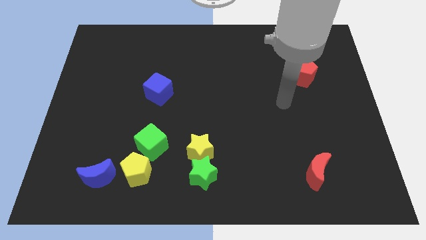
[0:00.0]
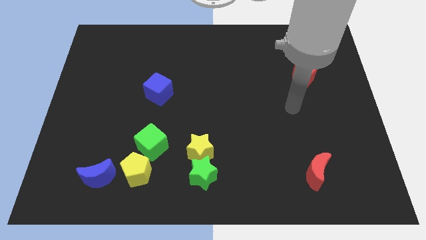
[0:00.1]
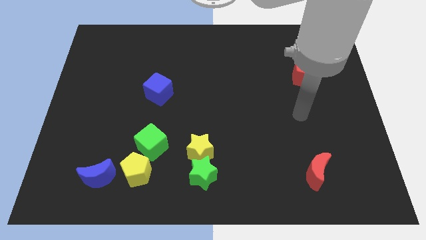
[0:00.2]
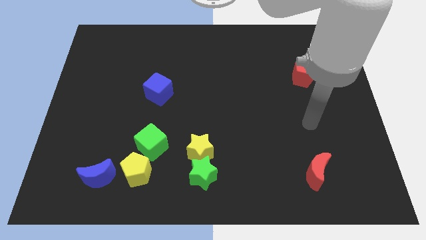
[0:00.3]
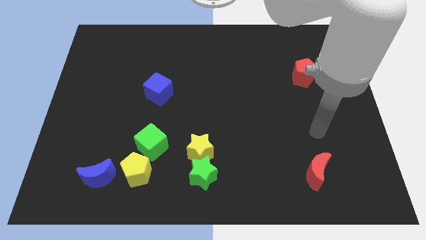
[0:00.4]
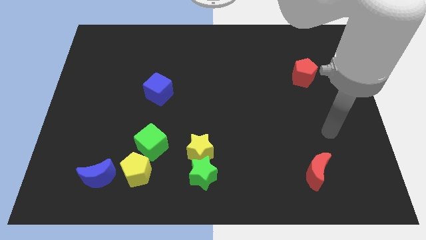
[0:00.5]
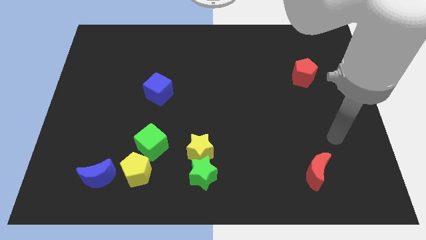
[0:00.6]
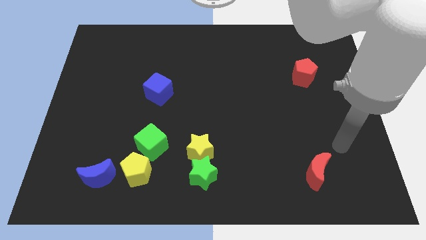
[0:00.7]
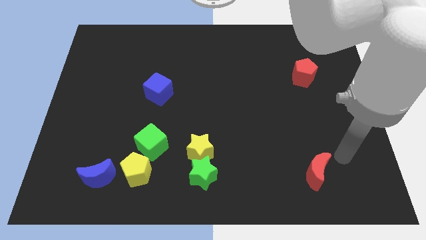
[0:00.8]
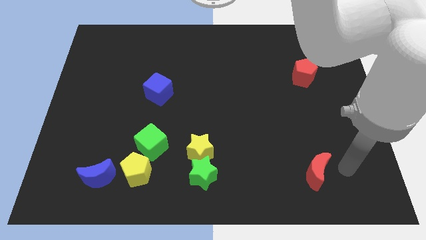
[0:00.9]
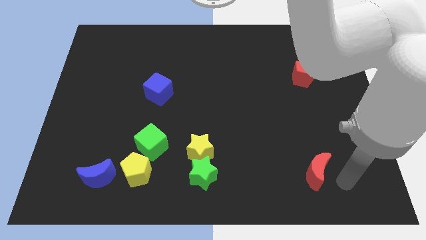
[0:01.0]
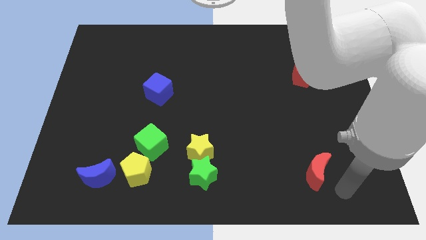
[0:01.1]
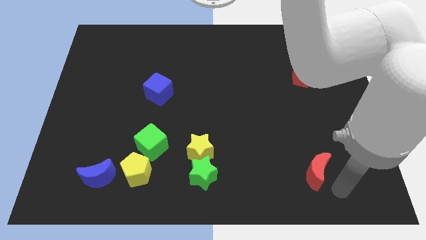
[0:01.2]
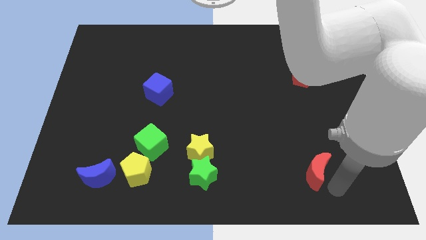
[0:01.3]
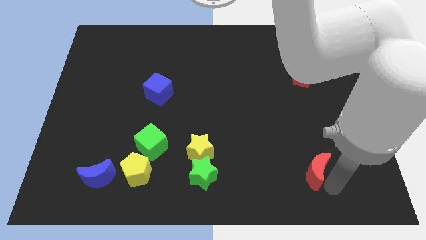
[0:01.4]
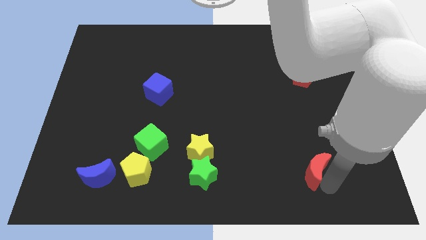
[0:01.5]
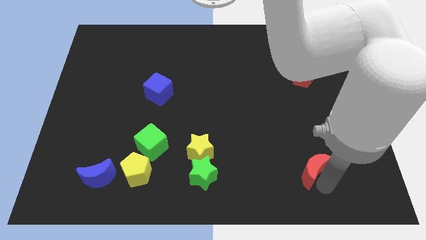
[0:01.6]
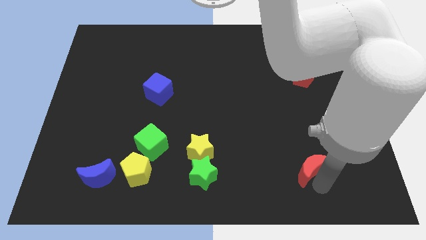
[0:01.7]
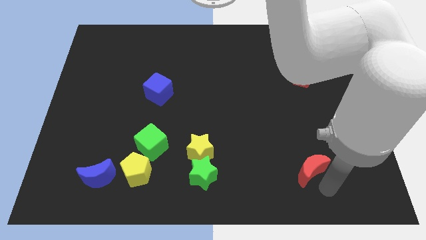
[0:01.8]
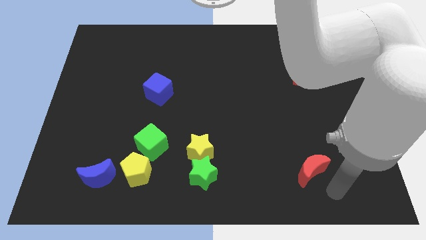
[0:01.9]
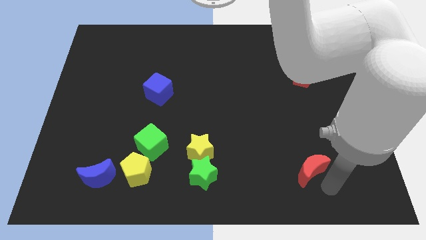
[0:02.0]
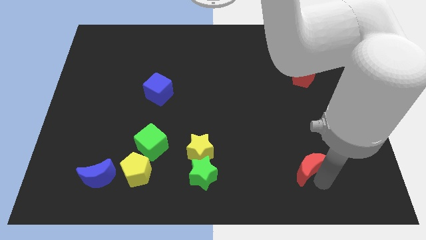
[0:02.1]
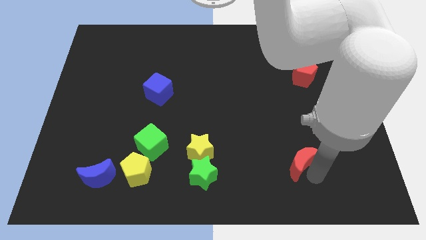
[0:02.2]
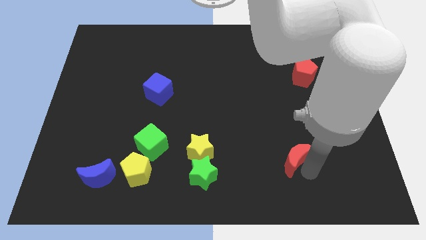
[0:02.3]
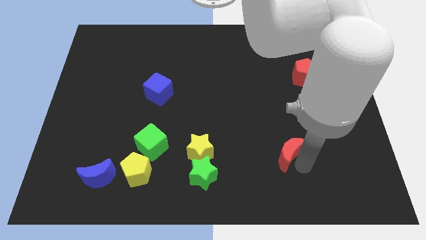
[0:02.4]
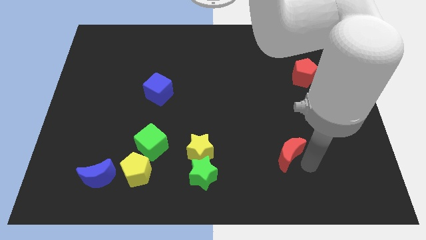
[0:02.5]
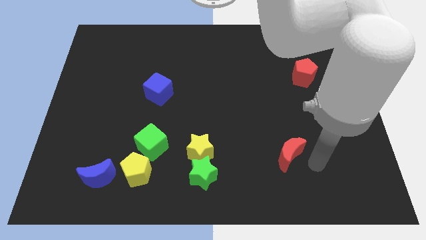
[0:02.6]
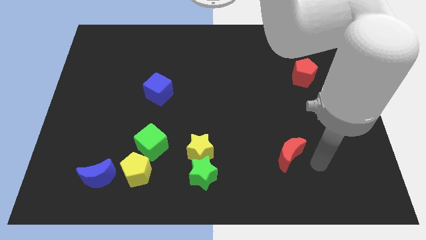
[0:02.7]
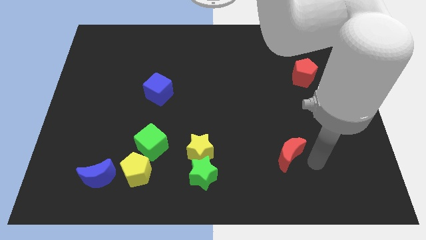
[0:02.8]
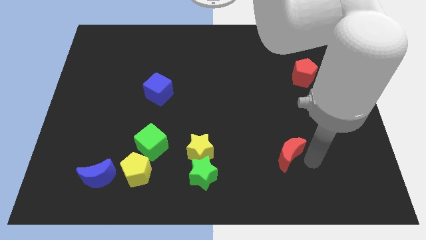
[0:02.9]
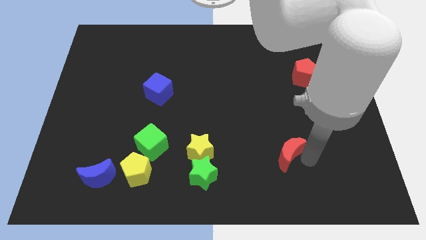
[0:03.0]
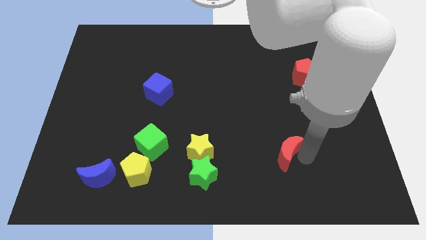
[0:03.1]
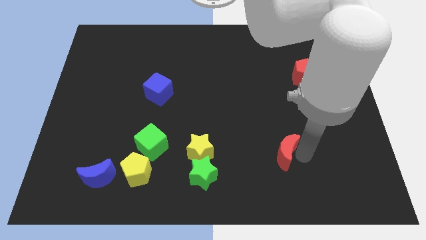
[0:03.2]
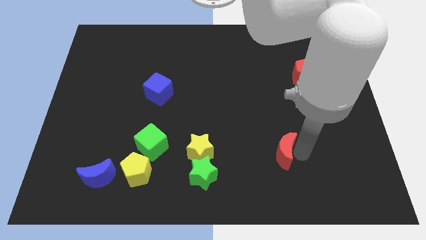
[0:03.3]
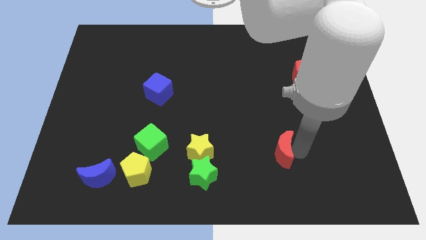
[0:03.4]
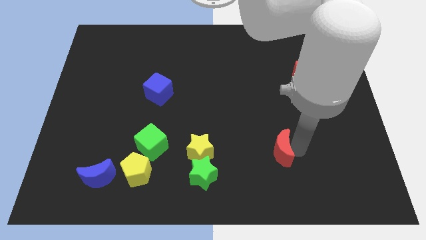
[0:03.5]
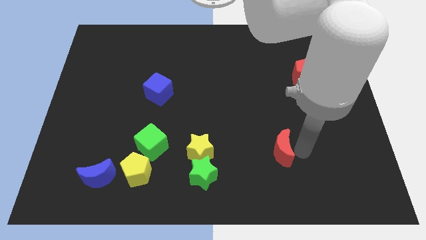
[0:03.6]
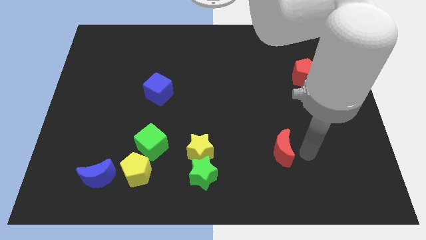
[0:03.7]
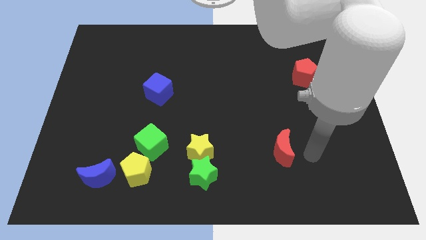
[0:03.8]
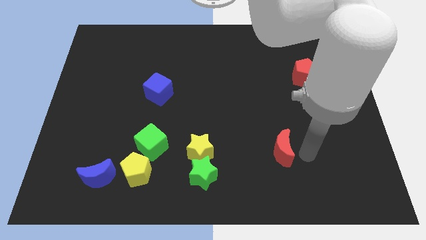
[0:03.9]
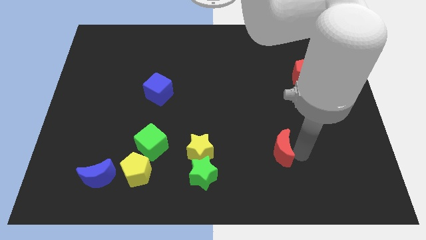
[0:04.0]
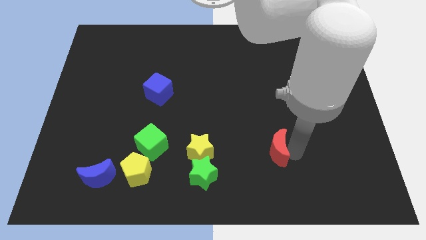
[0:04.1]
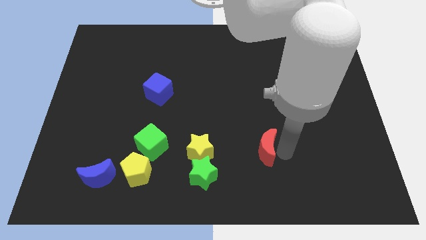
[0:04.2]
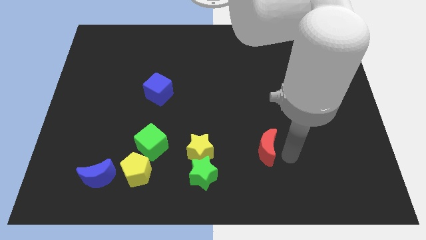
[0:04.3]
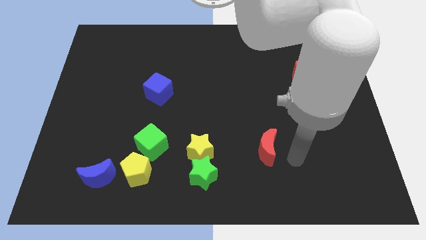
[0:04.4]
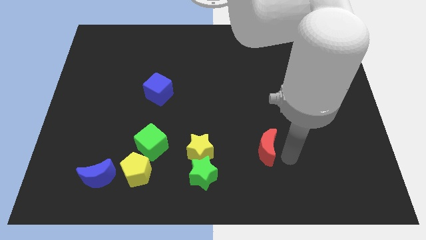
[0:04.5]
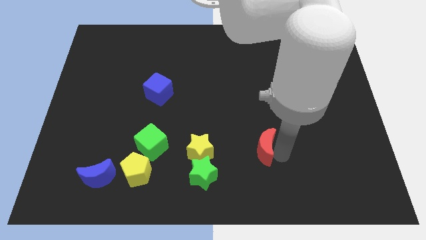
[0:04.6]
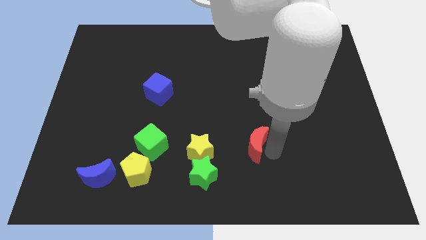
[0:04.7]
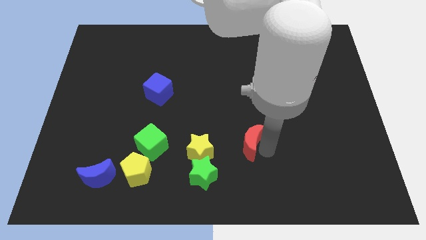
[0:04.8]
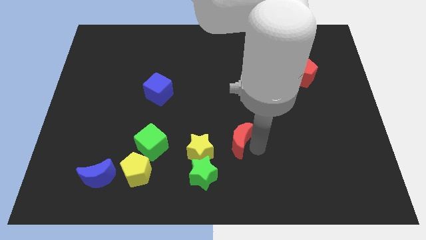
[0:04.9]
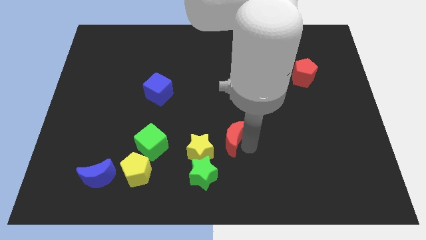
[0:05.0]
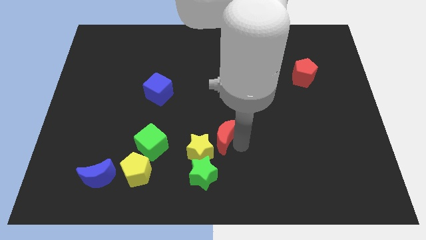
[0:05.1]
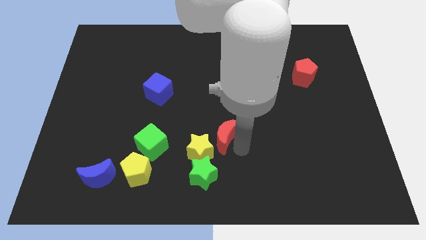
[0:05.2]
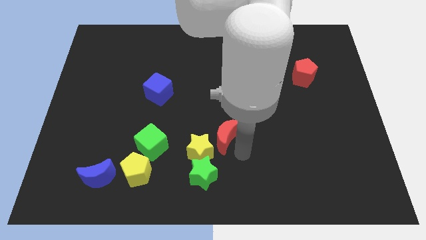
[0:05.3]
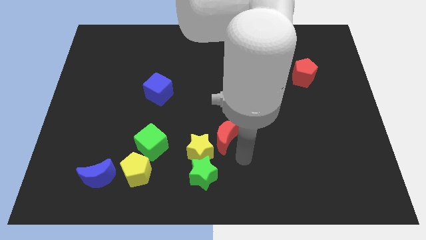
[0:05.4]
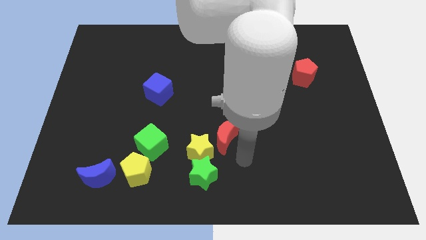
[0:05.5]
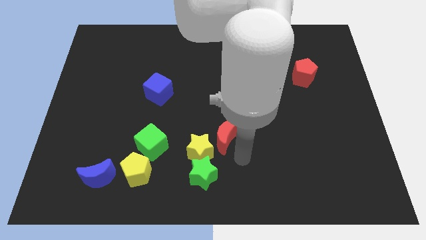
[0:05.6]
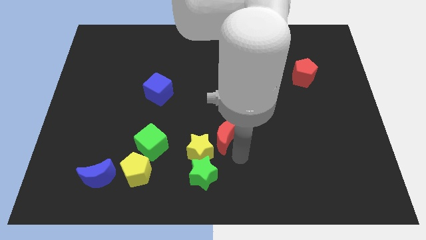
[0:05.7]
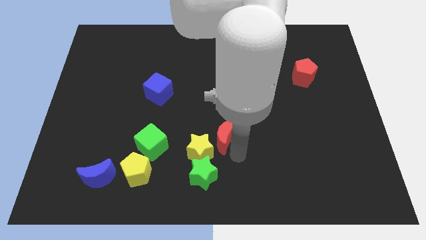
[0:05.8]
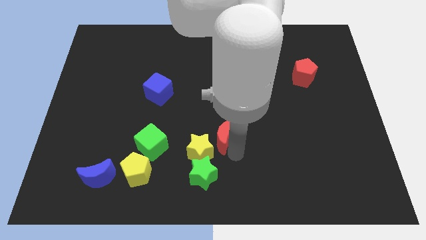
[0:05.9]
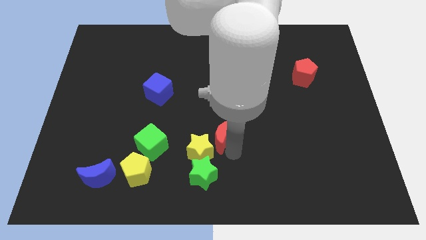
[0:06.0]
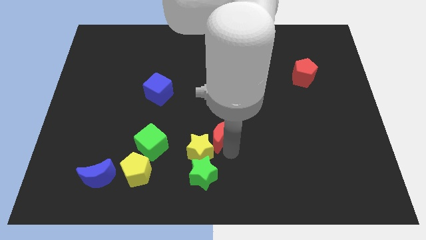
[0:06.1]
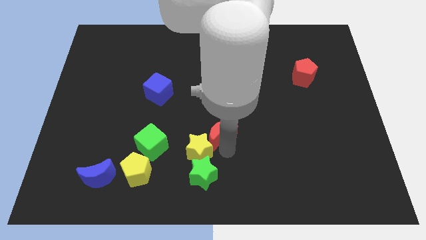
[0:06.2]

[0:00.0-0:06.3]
push the red moon to the top of the yellow star

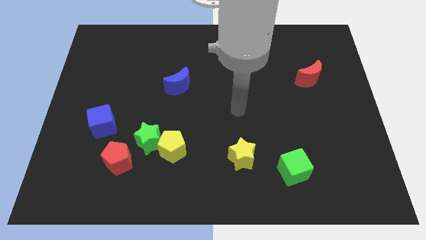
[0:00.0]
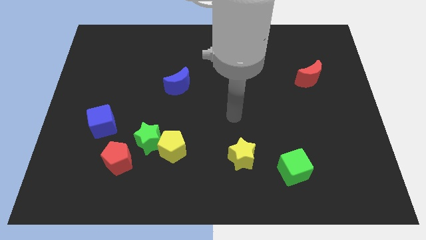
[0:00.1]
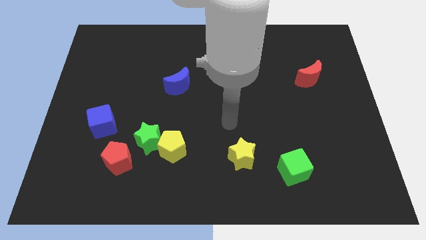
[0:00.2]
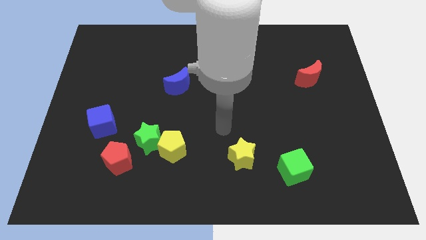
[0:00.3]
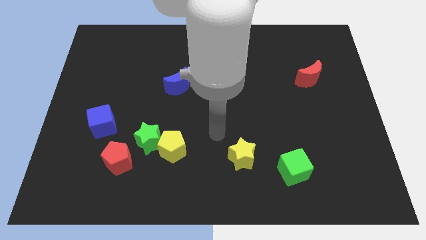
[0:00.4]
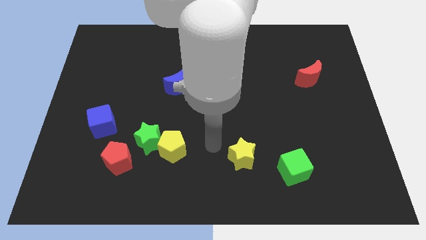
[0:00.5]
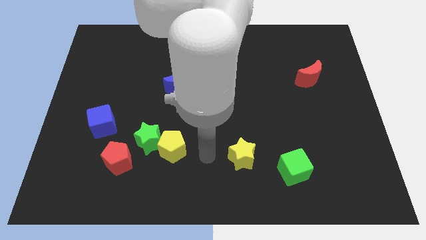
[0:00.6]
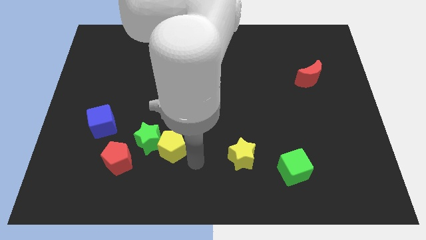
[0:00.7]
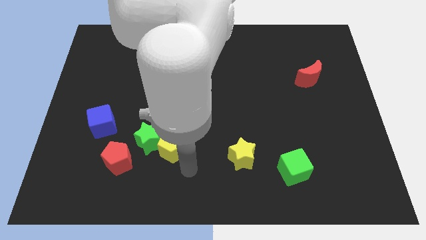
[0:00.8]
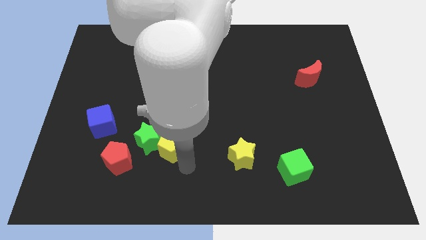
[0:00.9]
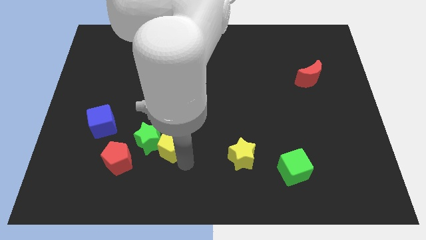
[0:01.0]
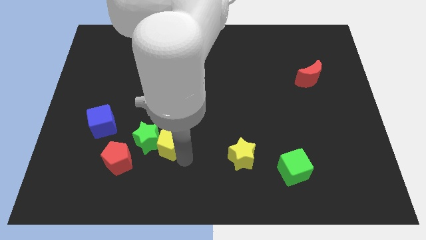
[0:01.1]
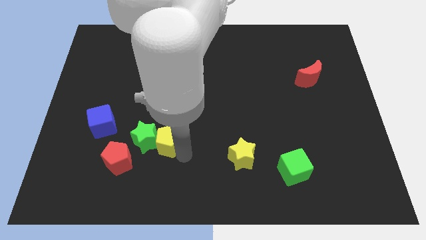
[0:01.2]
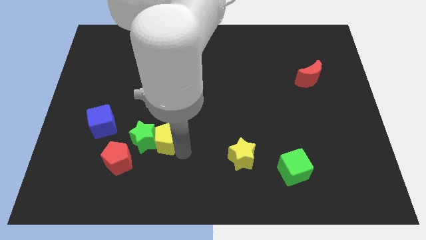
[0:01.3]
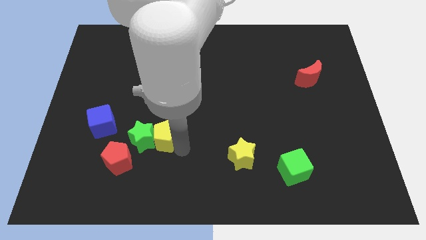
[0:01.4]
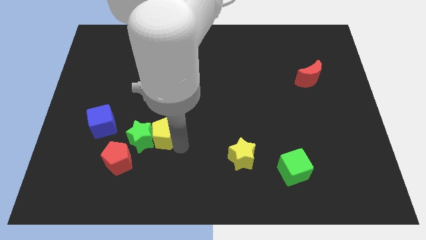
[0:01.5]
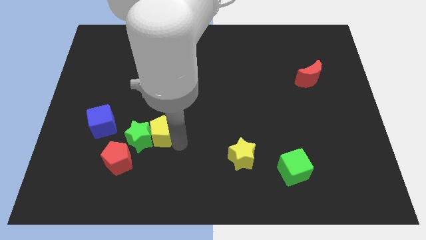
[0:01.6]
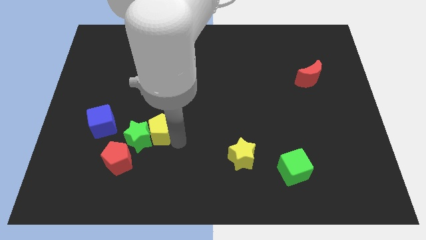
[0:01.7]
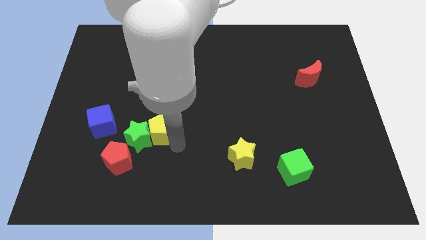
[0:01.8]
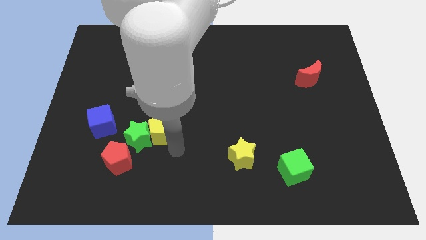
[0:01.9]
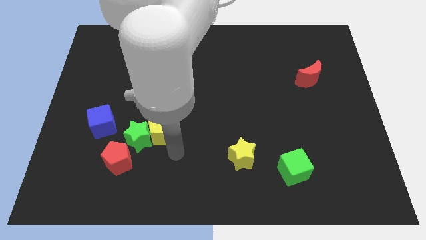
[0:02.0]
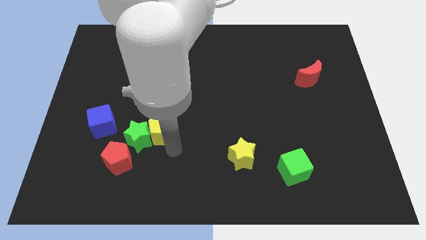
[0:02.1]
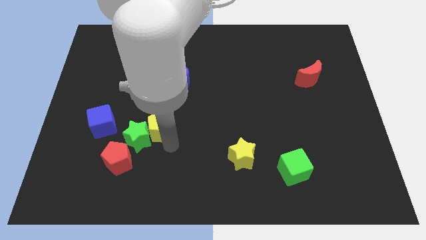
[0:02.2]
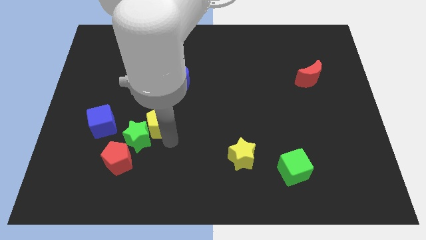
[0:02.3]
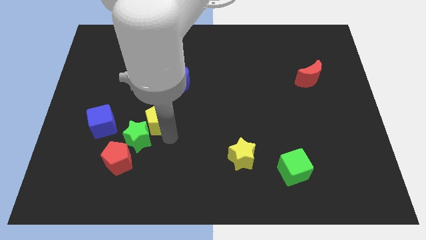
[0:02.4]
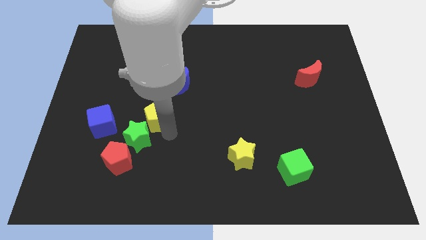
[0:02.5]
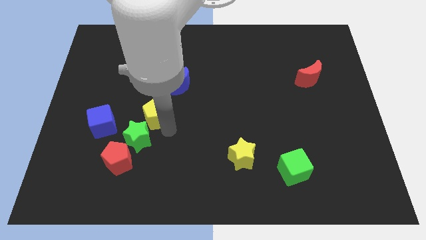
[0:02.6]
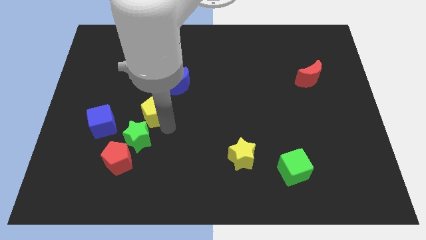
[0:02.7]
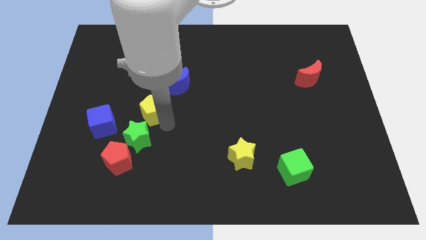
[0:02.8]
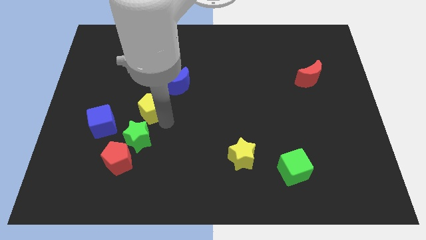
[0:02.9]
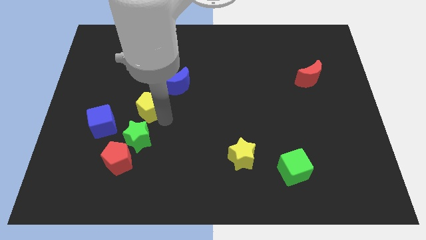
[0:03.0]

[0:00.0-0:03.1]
slide the yellow pentagon diagonally up and to the right of the blue cube
